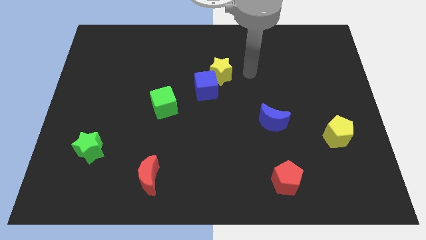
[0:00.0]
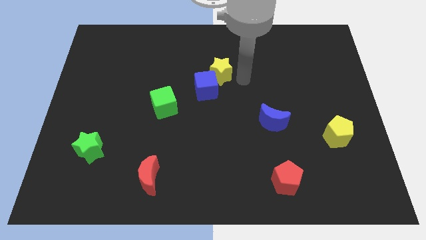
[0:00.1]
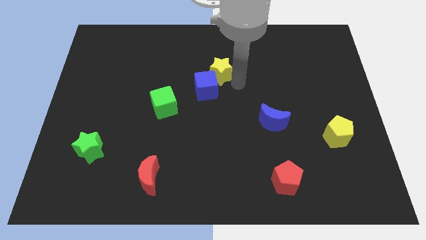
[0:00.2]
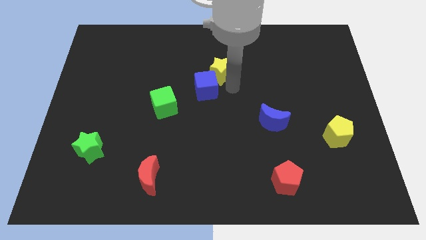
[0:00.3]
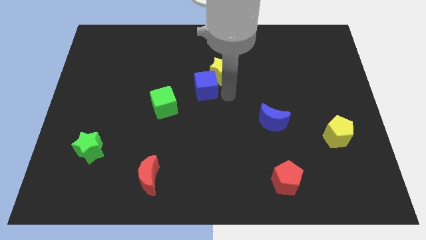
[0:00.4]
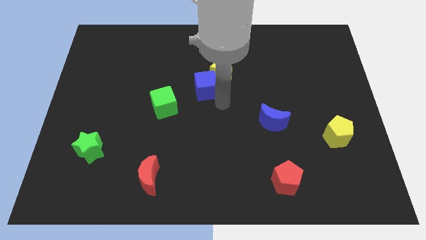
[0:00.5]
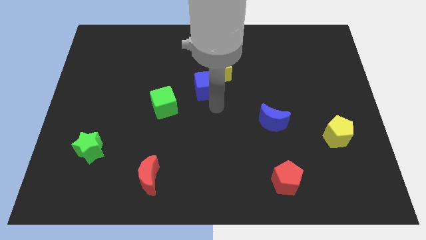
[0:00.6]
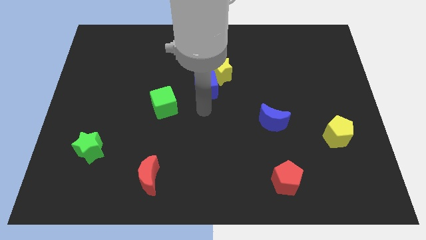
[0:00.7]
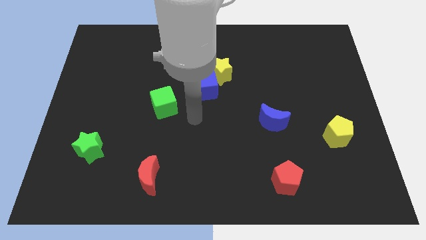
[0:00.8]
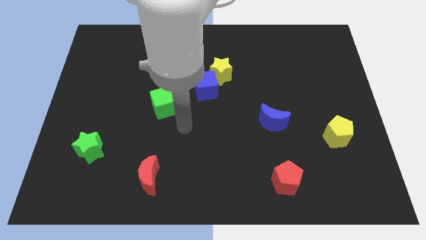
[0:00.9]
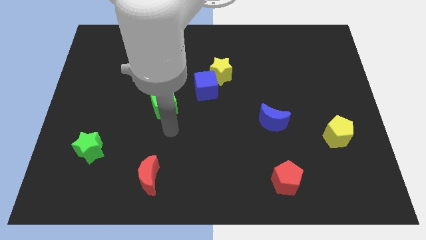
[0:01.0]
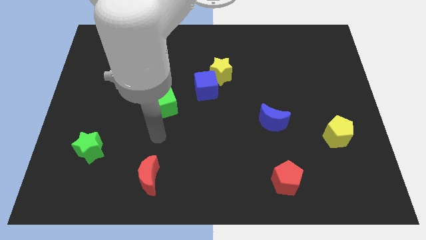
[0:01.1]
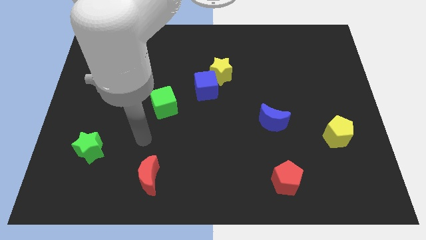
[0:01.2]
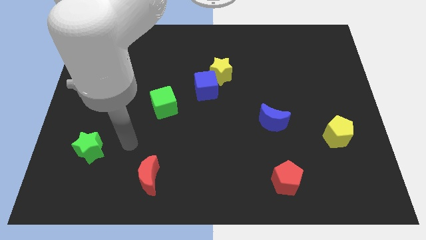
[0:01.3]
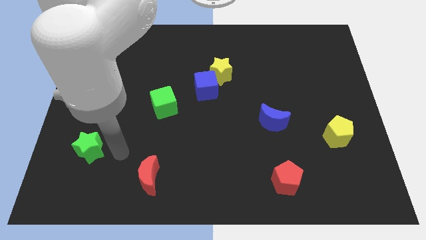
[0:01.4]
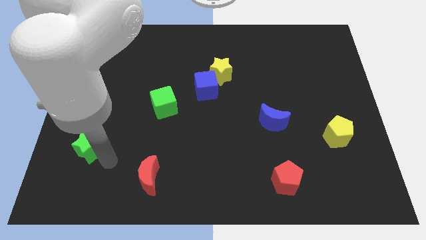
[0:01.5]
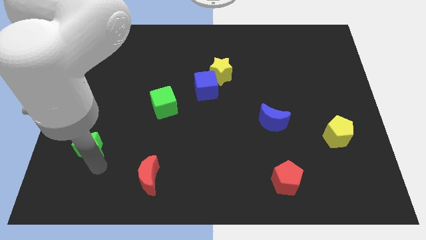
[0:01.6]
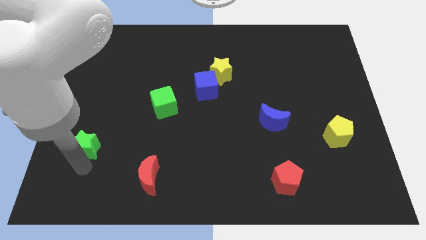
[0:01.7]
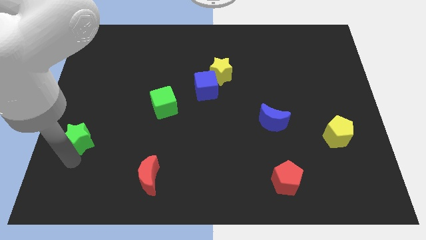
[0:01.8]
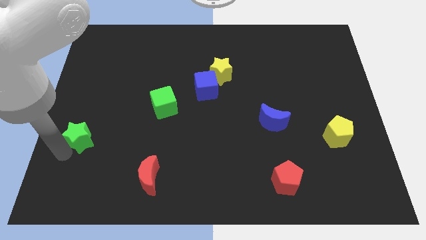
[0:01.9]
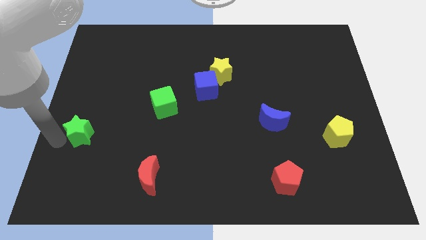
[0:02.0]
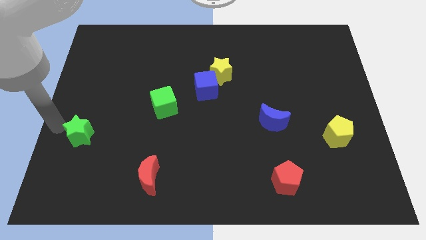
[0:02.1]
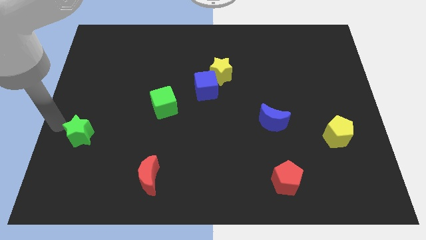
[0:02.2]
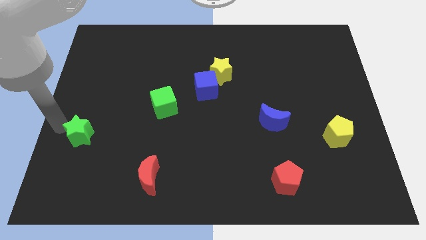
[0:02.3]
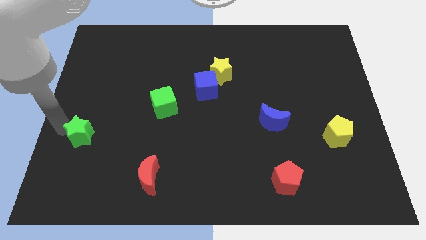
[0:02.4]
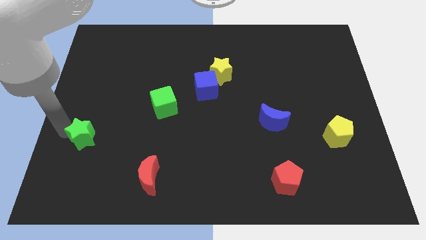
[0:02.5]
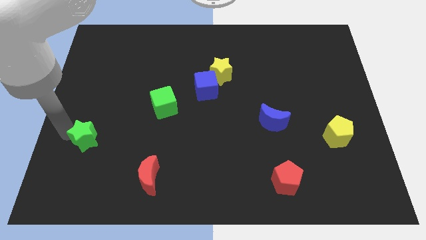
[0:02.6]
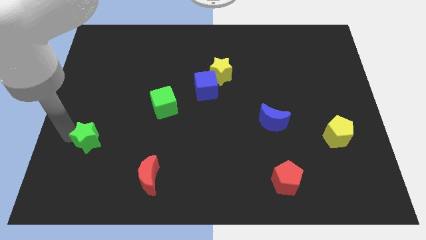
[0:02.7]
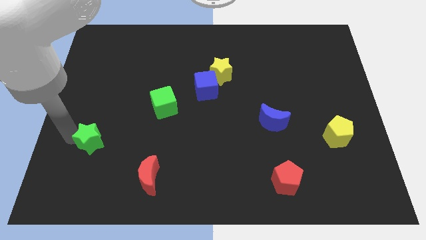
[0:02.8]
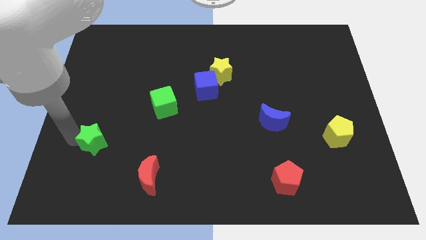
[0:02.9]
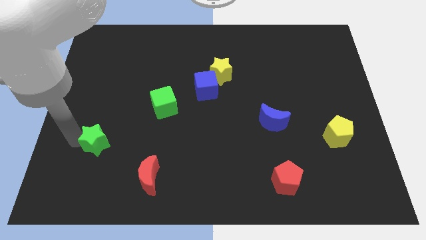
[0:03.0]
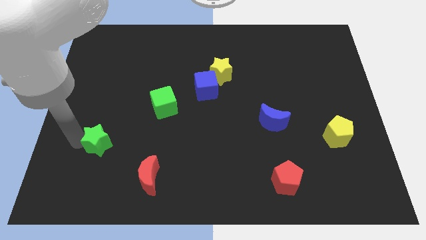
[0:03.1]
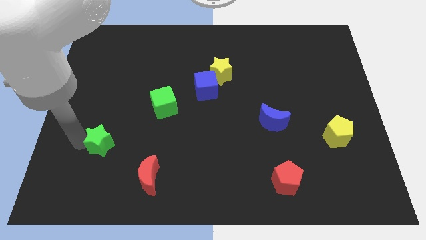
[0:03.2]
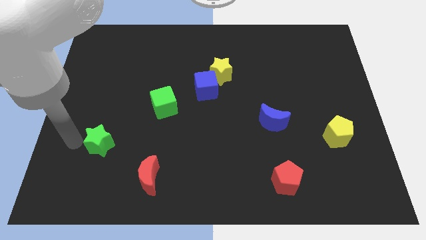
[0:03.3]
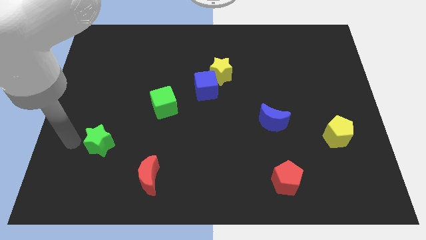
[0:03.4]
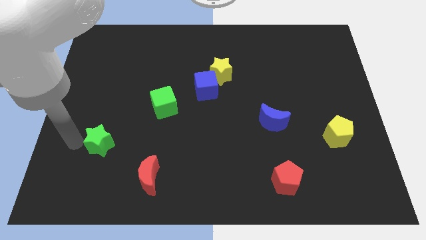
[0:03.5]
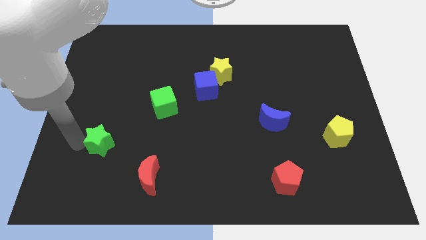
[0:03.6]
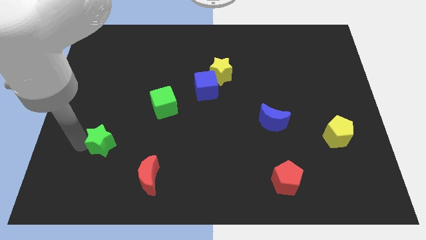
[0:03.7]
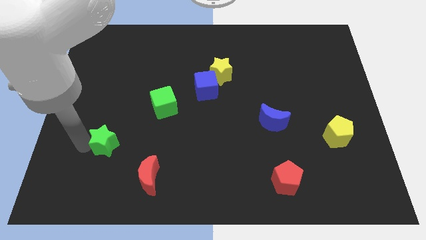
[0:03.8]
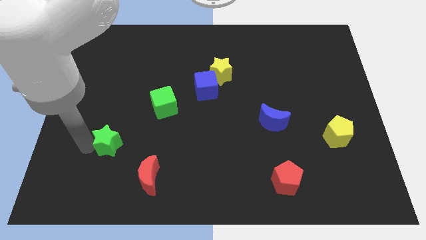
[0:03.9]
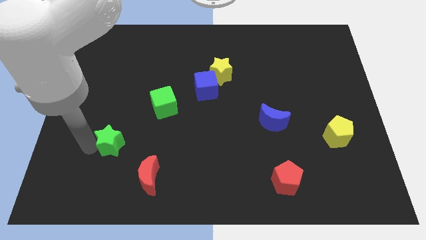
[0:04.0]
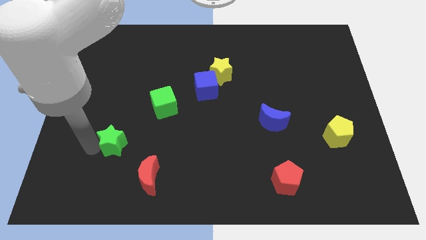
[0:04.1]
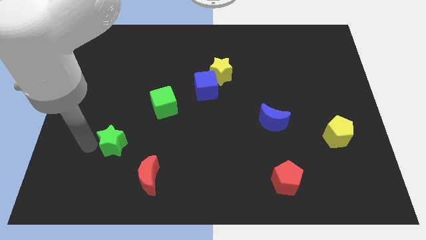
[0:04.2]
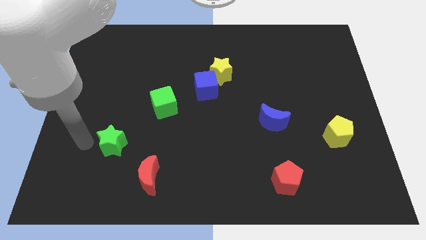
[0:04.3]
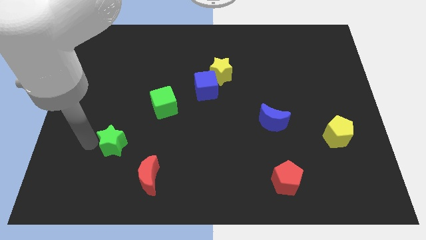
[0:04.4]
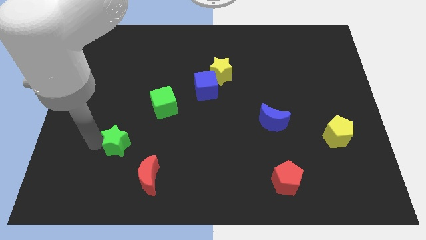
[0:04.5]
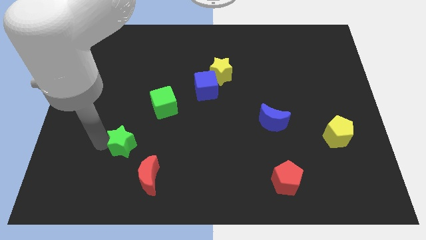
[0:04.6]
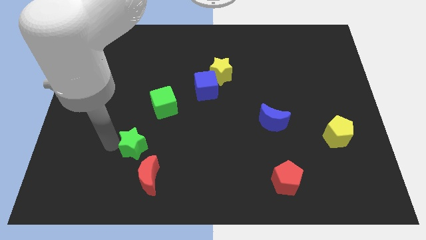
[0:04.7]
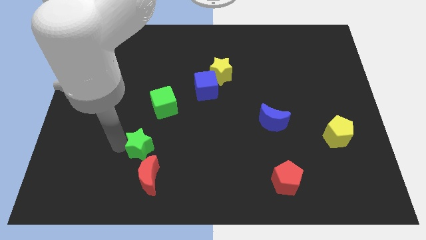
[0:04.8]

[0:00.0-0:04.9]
push the green star below the green cube

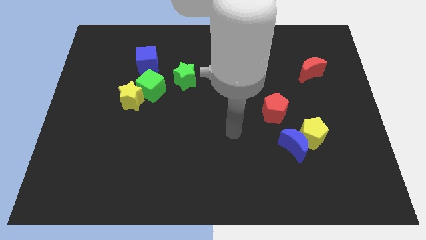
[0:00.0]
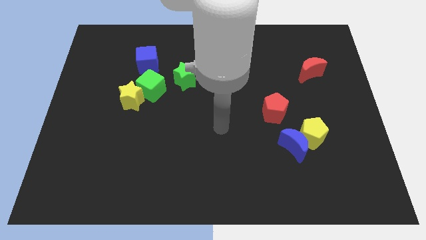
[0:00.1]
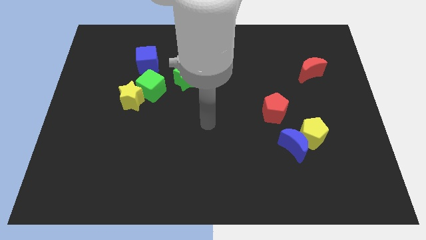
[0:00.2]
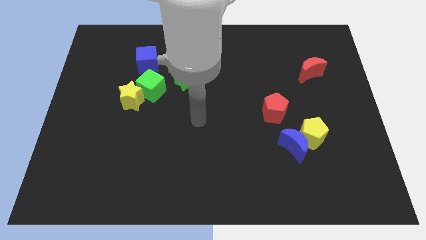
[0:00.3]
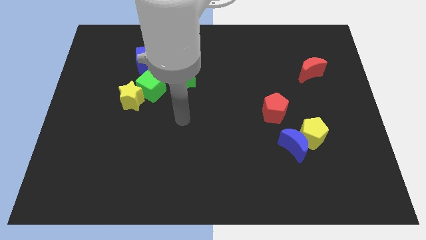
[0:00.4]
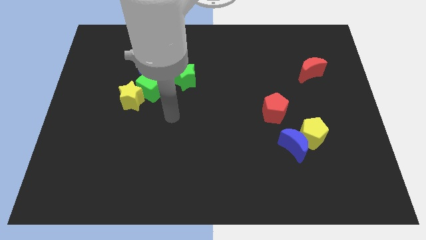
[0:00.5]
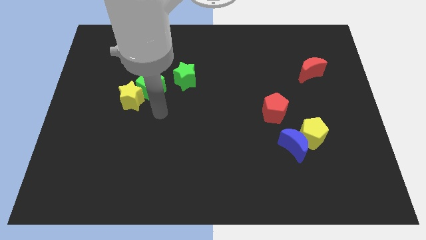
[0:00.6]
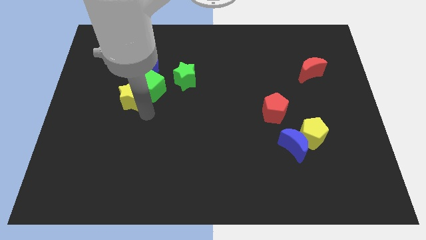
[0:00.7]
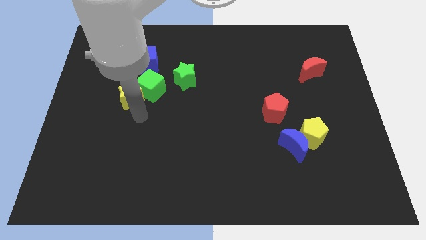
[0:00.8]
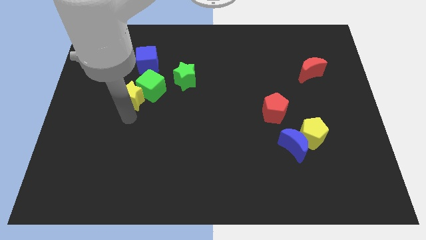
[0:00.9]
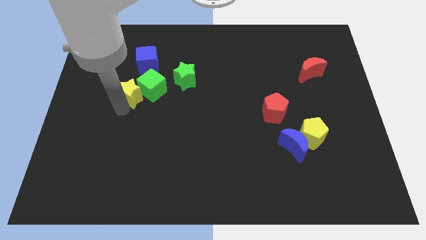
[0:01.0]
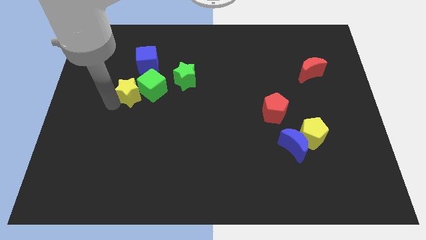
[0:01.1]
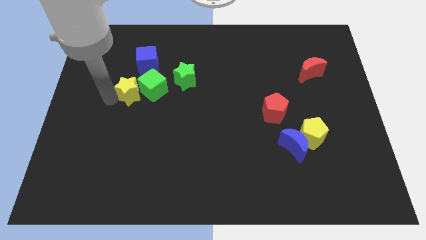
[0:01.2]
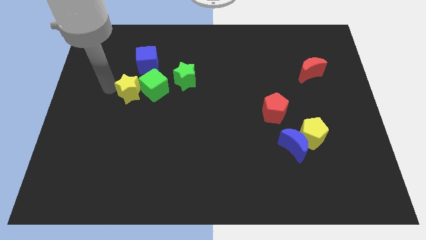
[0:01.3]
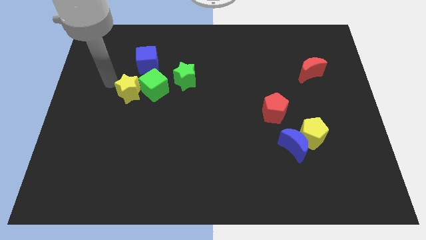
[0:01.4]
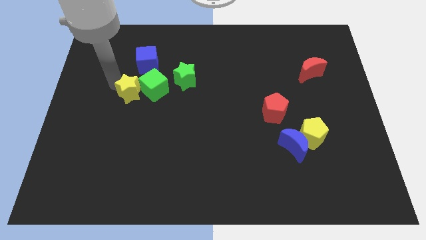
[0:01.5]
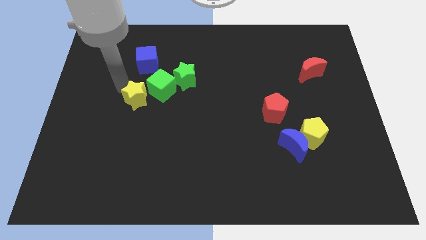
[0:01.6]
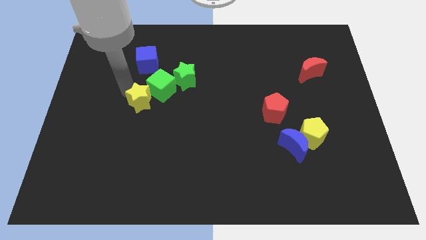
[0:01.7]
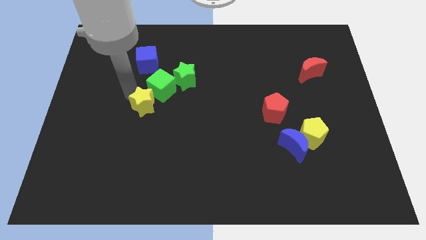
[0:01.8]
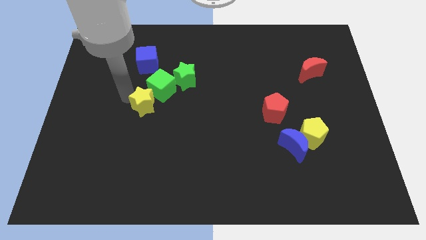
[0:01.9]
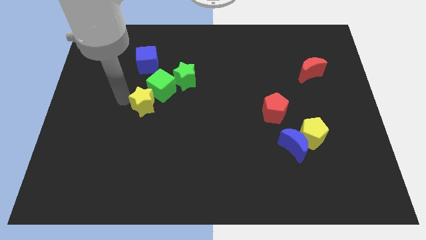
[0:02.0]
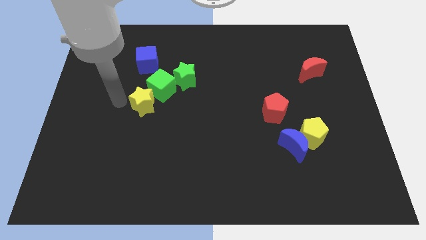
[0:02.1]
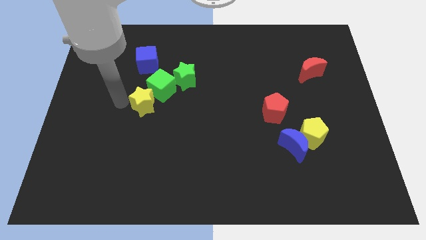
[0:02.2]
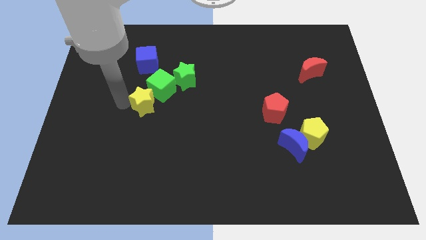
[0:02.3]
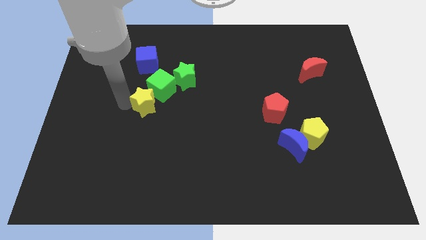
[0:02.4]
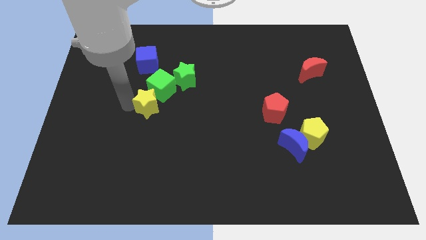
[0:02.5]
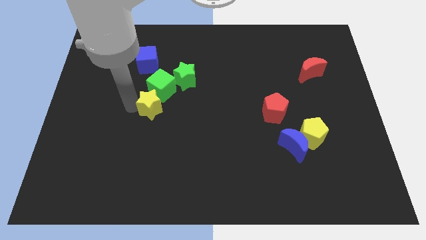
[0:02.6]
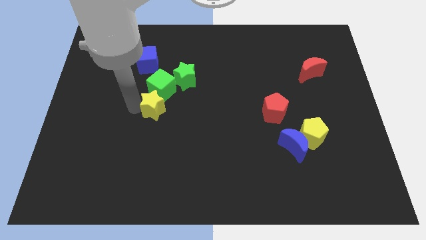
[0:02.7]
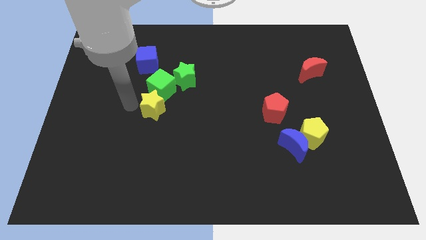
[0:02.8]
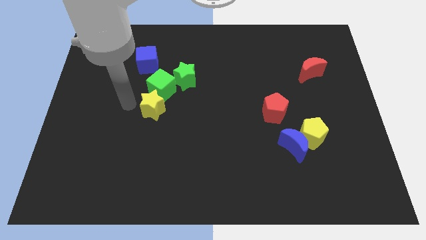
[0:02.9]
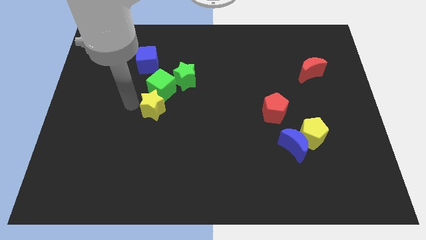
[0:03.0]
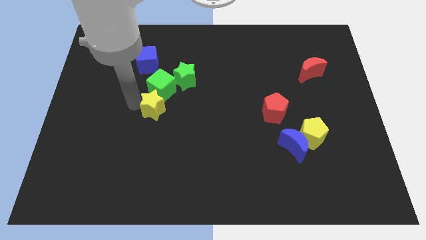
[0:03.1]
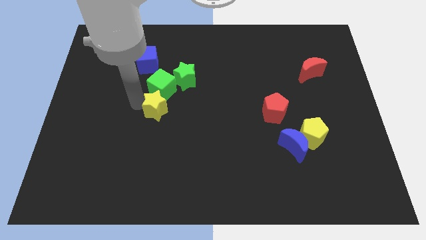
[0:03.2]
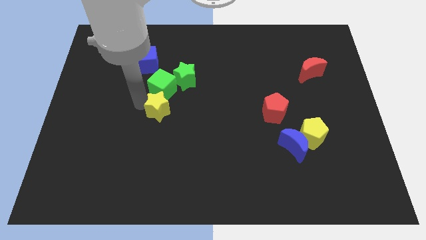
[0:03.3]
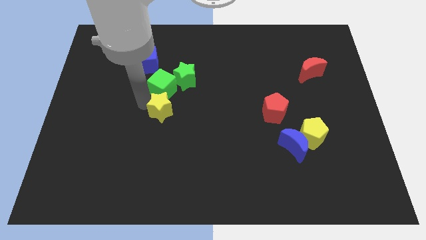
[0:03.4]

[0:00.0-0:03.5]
slide the yellow star below the green star
